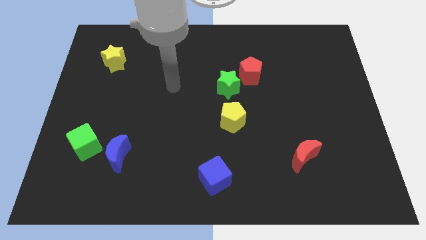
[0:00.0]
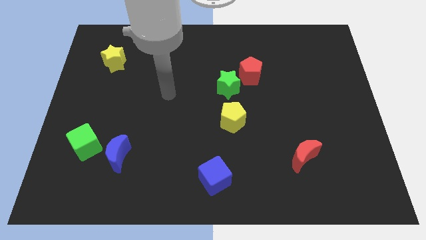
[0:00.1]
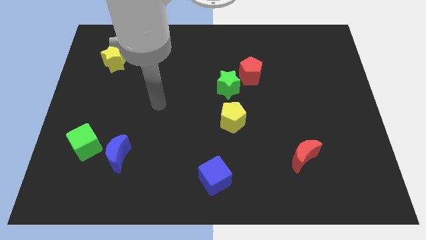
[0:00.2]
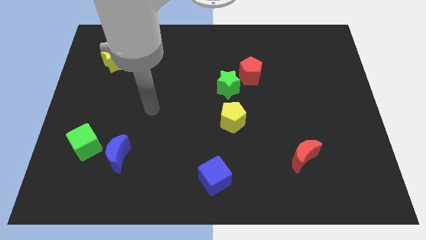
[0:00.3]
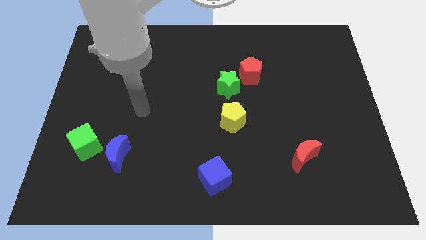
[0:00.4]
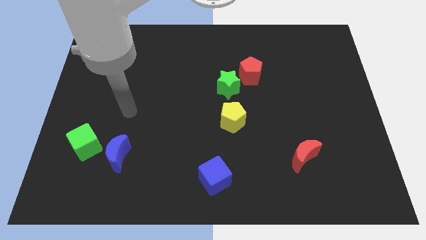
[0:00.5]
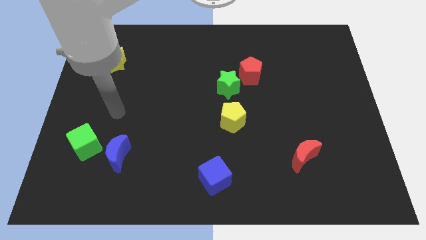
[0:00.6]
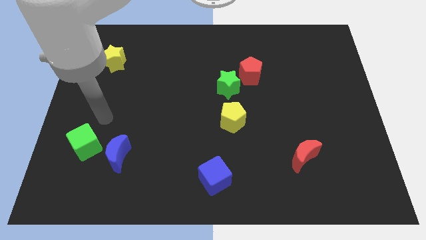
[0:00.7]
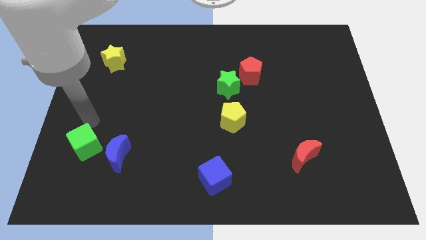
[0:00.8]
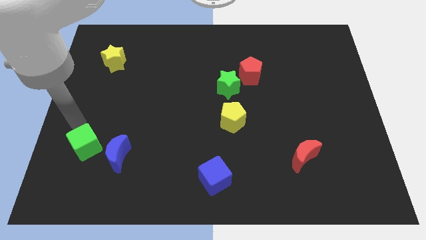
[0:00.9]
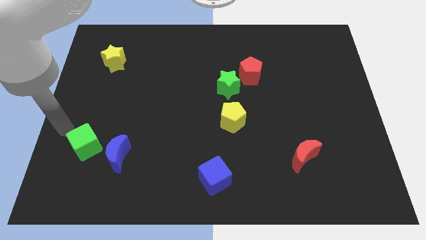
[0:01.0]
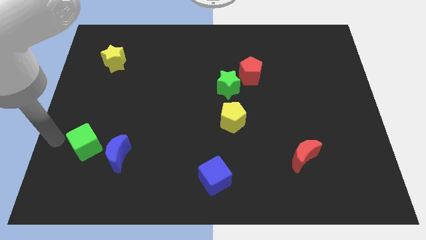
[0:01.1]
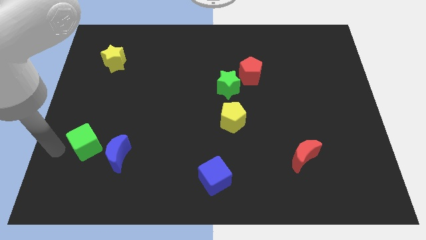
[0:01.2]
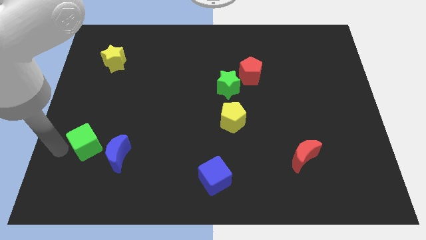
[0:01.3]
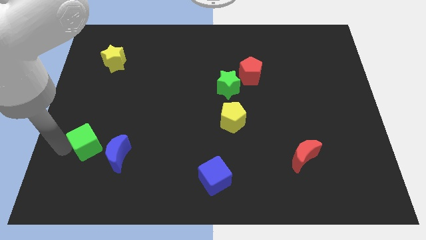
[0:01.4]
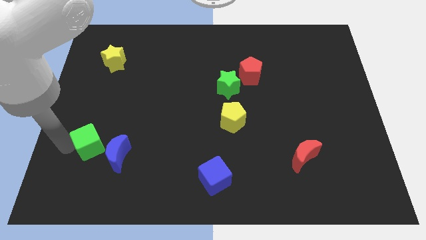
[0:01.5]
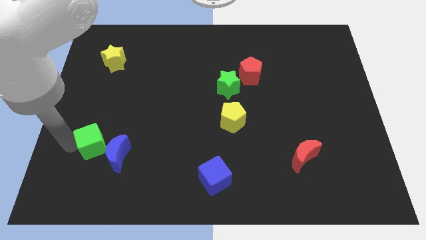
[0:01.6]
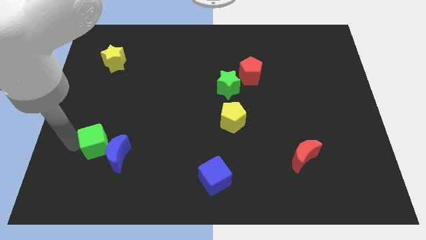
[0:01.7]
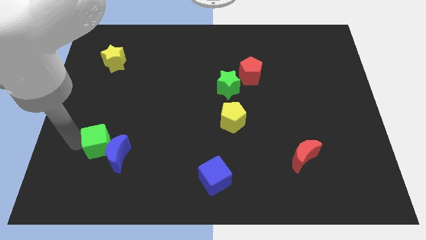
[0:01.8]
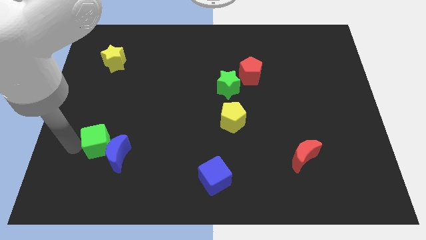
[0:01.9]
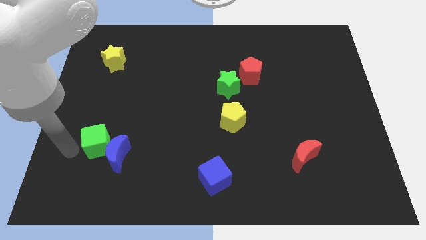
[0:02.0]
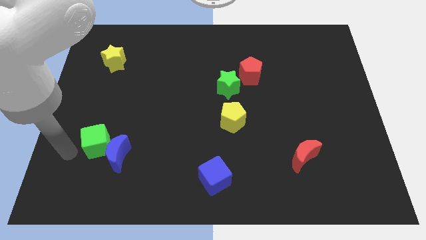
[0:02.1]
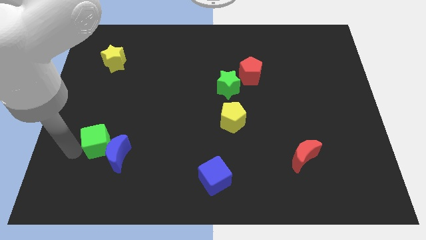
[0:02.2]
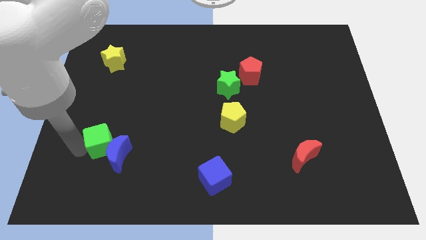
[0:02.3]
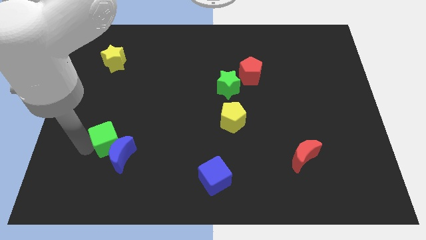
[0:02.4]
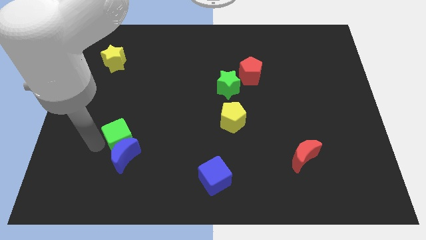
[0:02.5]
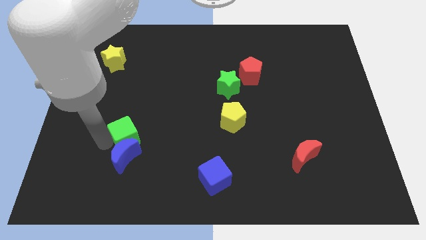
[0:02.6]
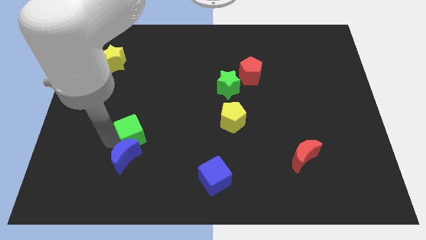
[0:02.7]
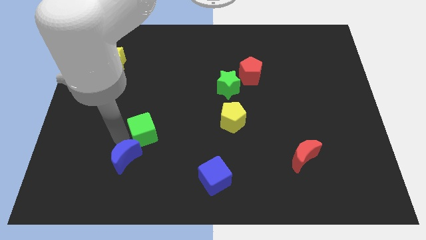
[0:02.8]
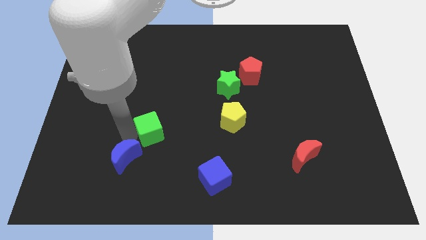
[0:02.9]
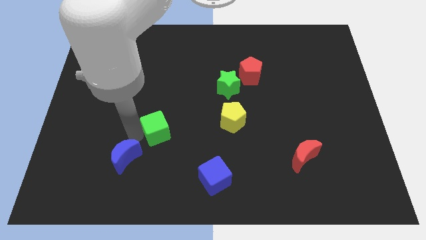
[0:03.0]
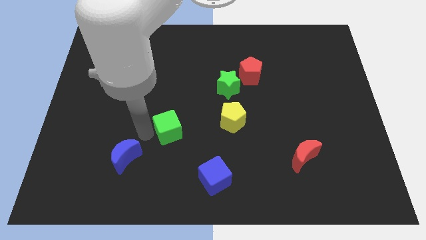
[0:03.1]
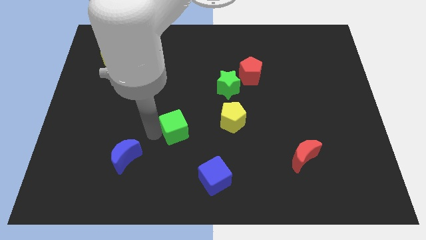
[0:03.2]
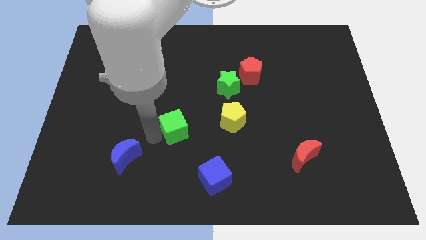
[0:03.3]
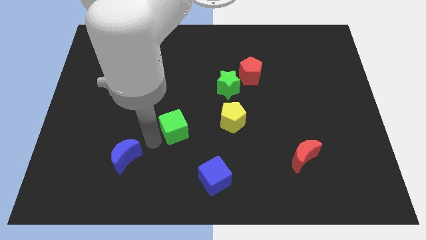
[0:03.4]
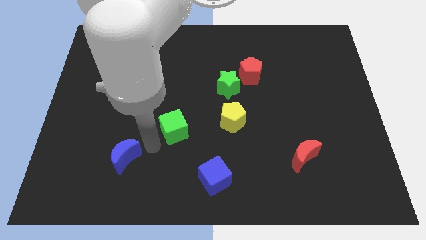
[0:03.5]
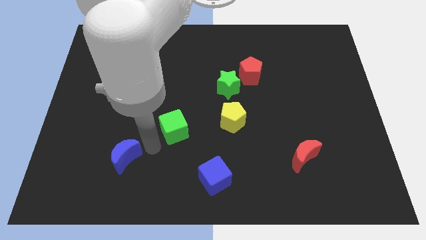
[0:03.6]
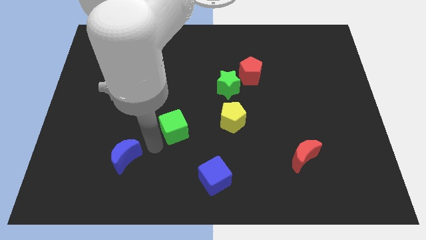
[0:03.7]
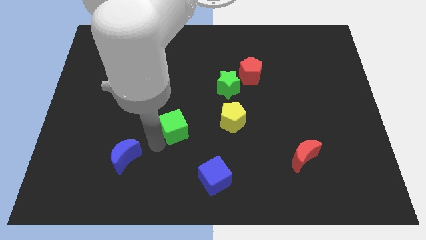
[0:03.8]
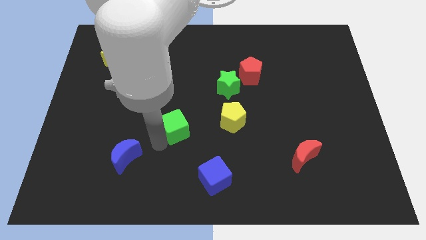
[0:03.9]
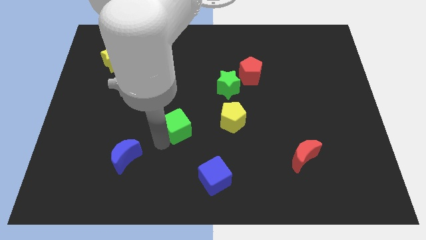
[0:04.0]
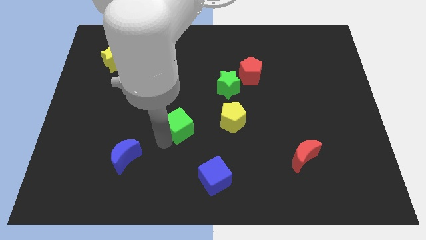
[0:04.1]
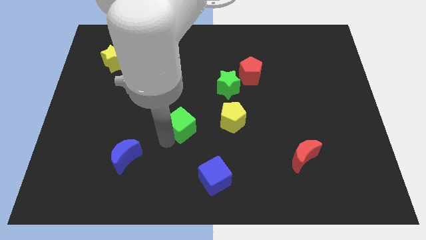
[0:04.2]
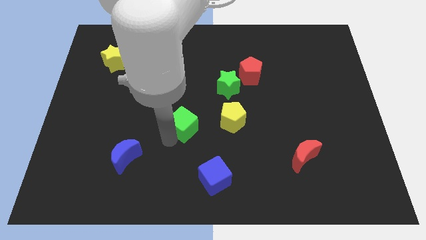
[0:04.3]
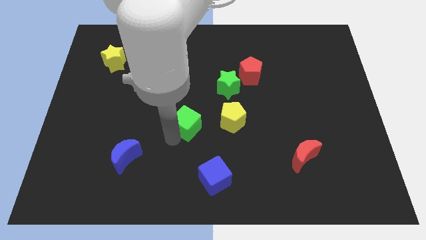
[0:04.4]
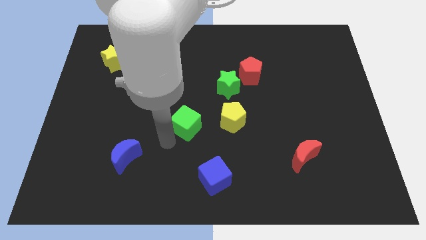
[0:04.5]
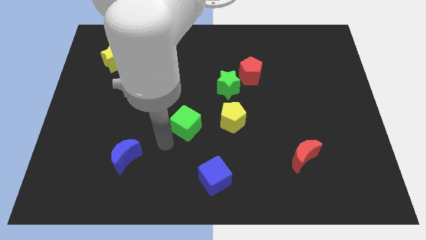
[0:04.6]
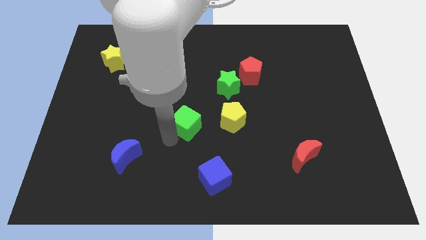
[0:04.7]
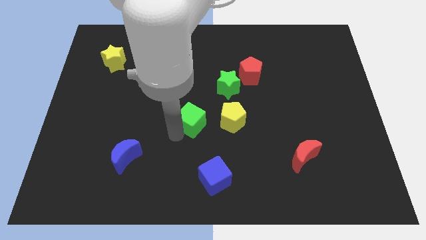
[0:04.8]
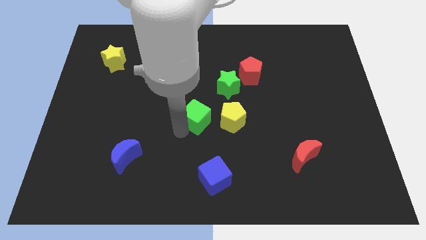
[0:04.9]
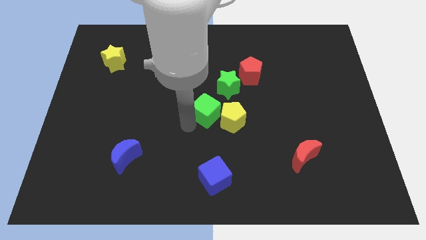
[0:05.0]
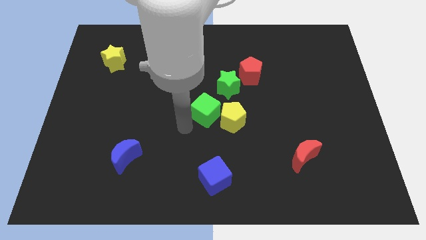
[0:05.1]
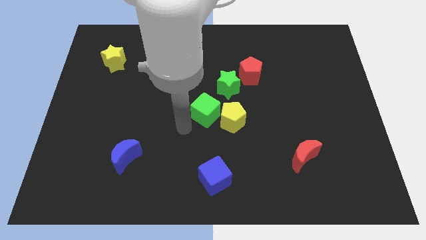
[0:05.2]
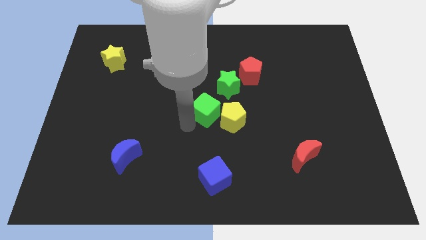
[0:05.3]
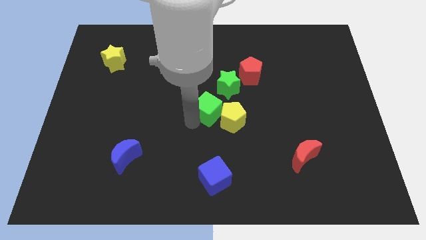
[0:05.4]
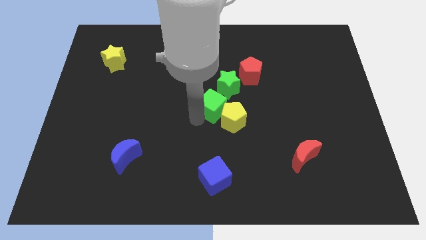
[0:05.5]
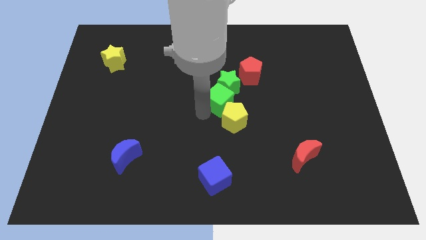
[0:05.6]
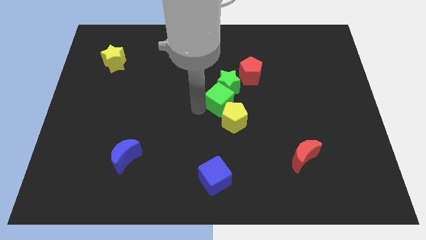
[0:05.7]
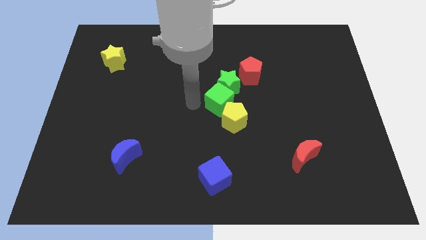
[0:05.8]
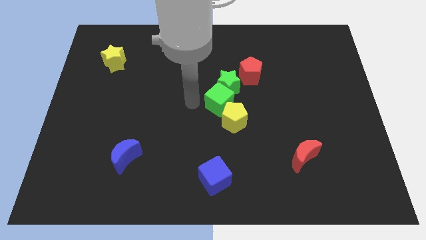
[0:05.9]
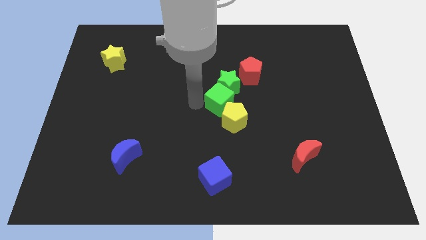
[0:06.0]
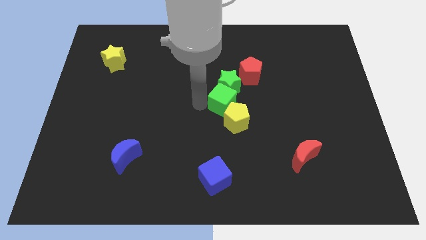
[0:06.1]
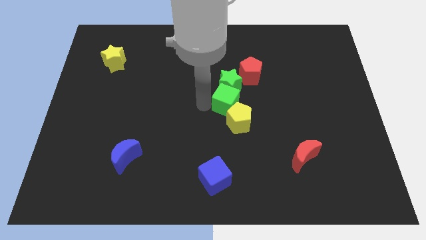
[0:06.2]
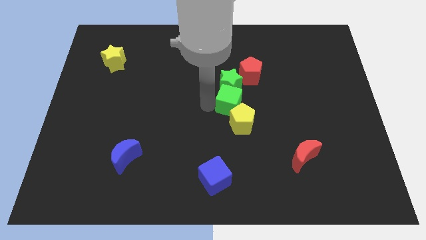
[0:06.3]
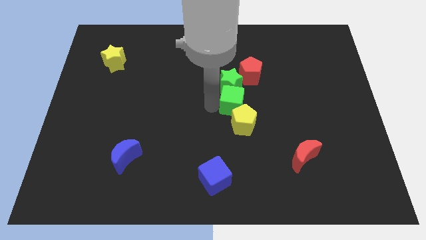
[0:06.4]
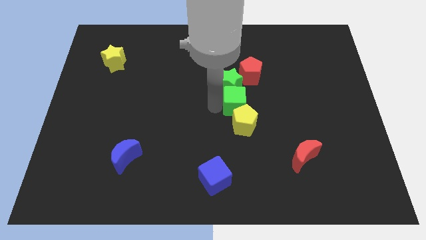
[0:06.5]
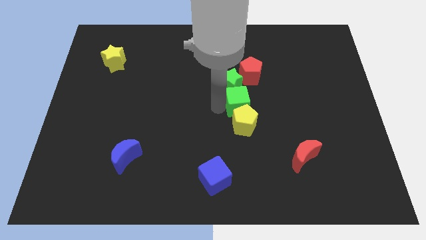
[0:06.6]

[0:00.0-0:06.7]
push the green cube diagonally up and to the right of the yellow pentagon

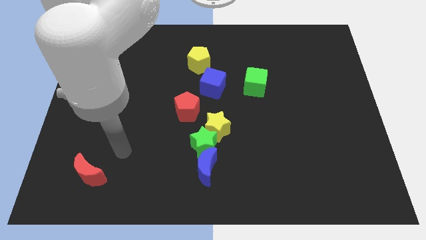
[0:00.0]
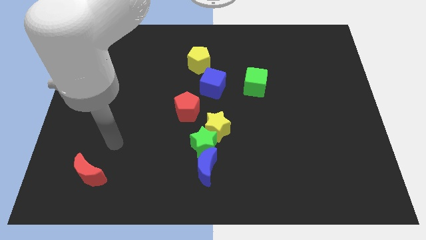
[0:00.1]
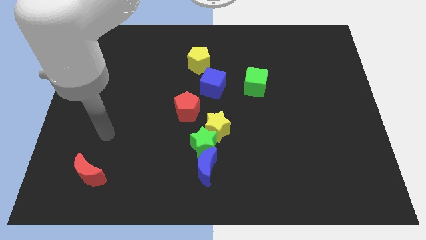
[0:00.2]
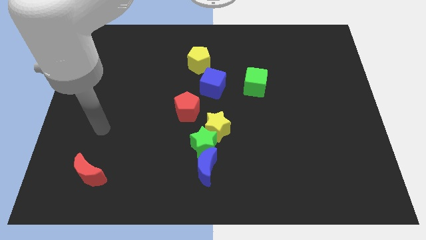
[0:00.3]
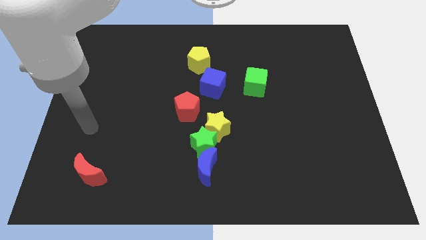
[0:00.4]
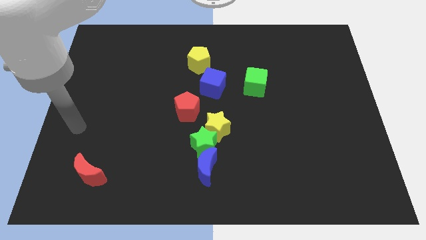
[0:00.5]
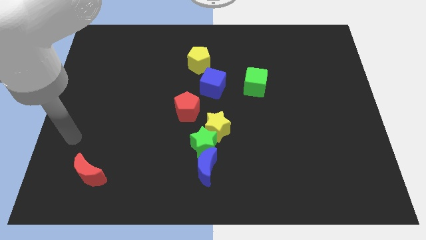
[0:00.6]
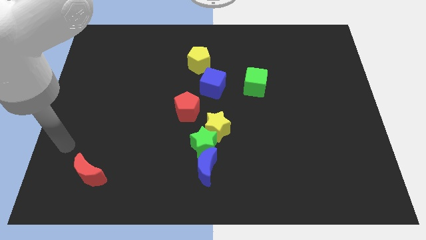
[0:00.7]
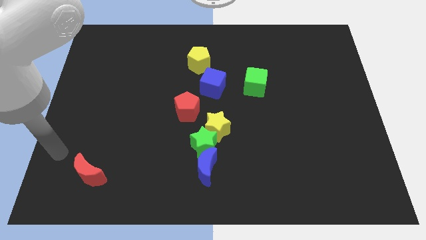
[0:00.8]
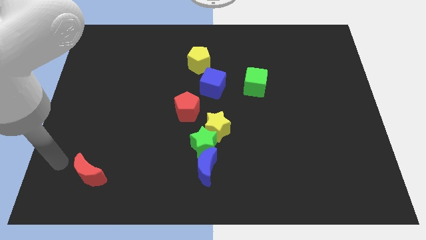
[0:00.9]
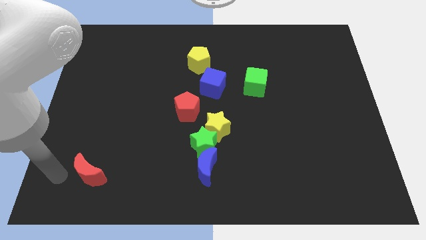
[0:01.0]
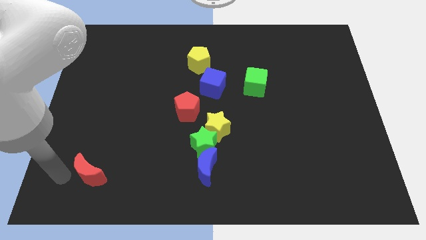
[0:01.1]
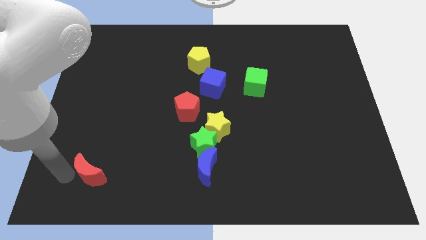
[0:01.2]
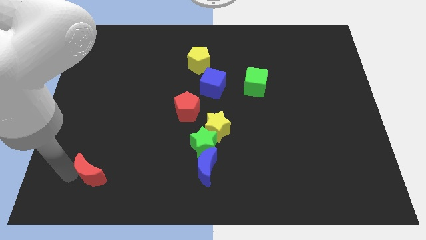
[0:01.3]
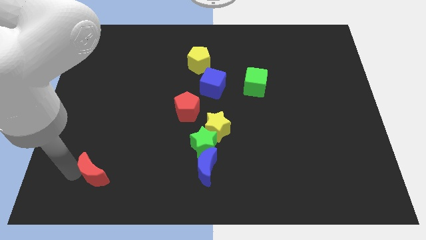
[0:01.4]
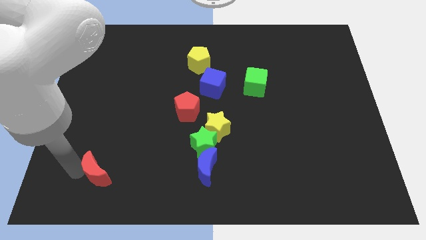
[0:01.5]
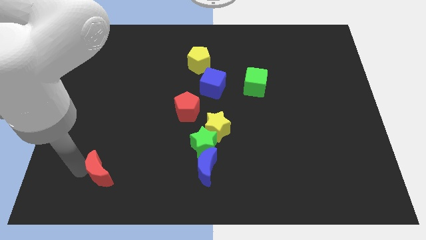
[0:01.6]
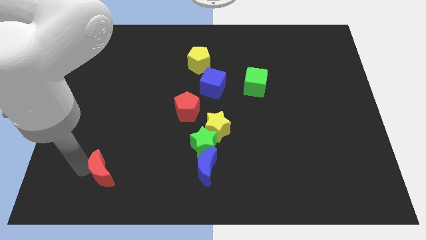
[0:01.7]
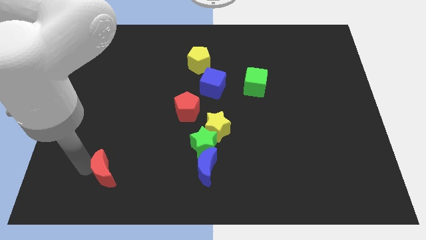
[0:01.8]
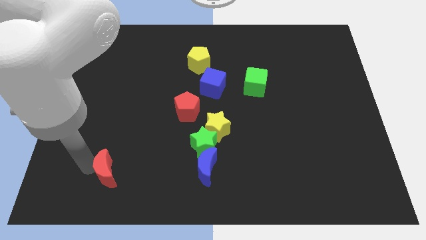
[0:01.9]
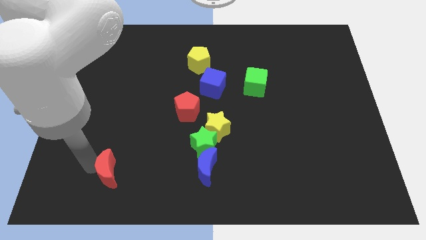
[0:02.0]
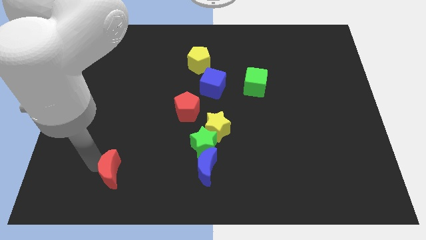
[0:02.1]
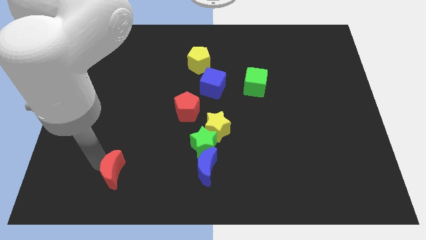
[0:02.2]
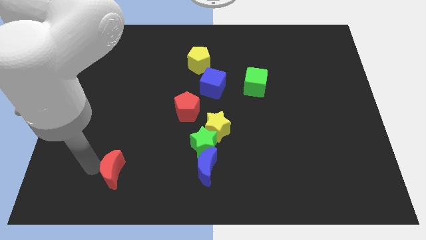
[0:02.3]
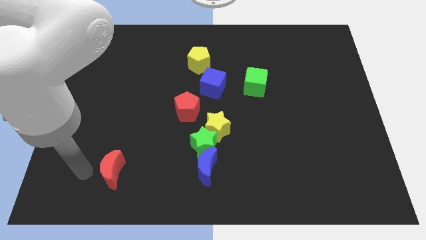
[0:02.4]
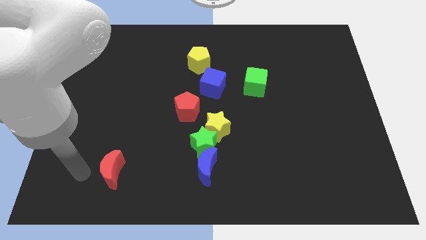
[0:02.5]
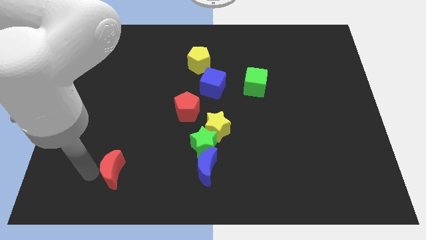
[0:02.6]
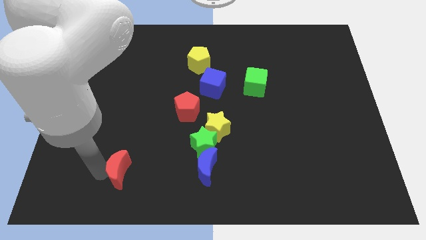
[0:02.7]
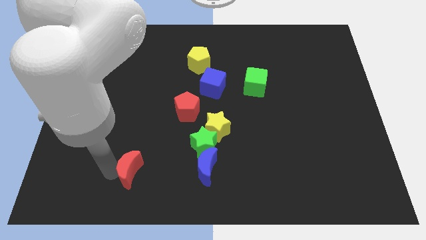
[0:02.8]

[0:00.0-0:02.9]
push the red moon to the left side of the blue moon
